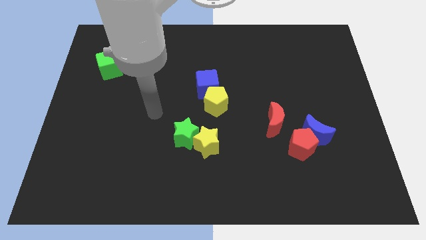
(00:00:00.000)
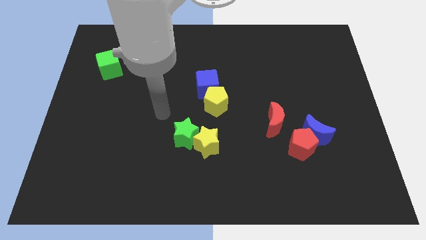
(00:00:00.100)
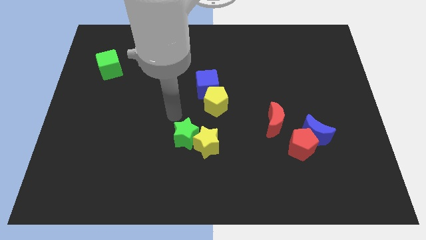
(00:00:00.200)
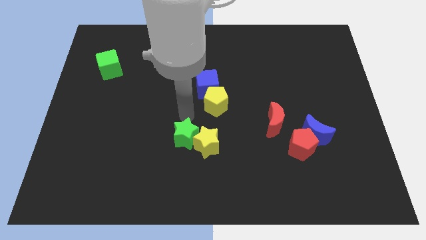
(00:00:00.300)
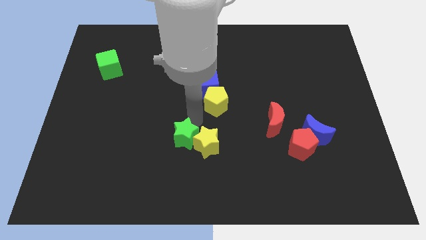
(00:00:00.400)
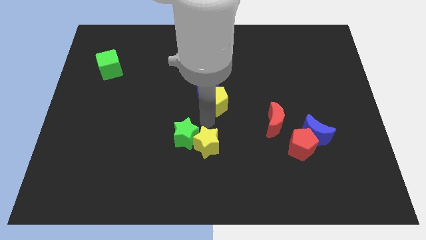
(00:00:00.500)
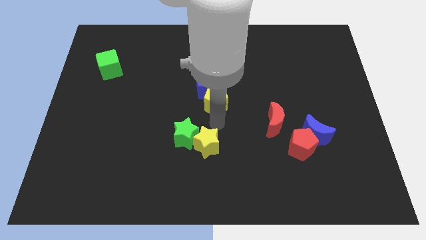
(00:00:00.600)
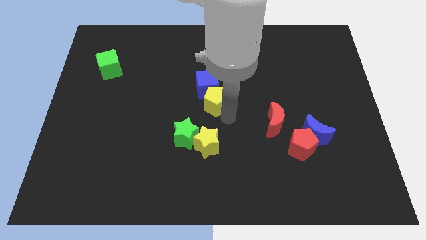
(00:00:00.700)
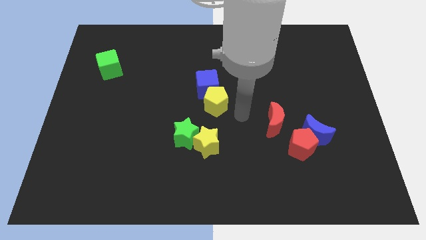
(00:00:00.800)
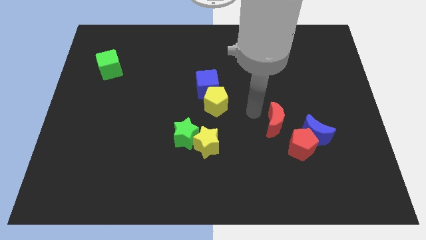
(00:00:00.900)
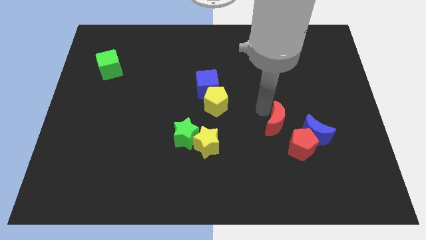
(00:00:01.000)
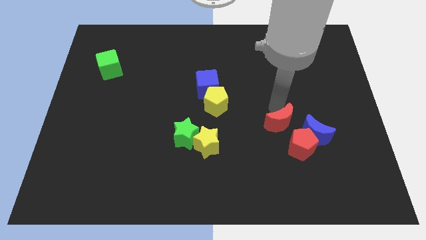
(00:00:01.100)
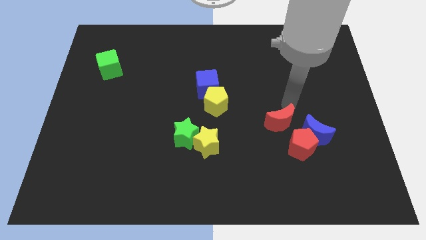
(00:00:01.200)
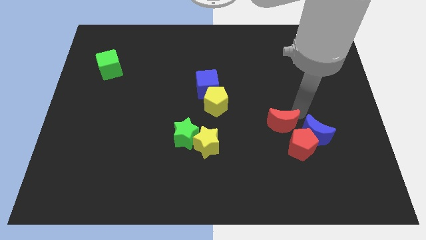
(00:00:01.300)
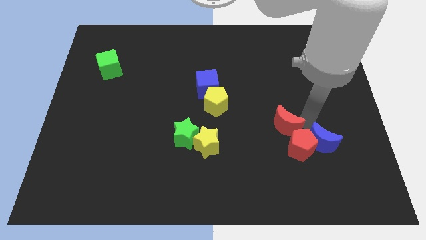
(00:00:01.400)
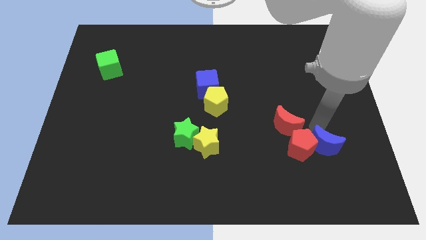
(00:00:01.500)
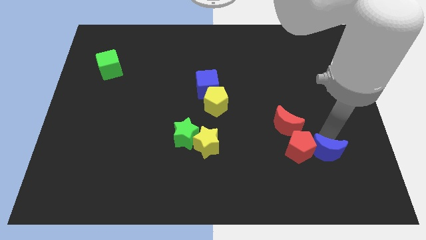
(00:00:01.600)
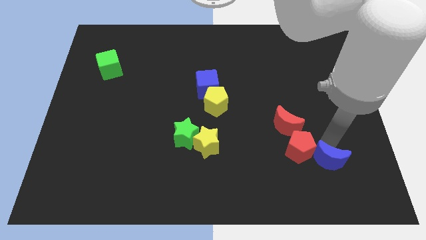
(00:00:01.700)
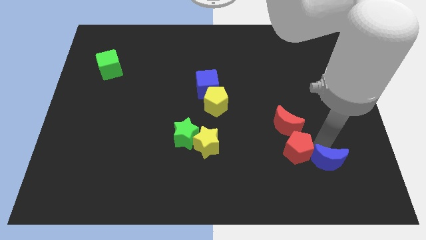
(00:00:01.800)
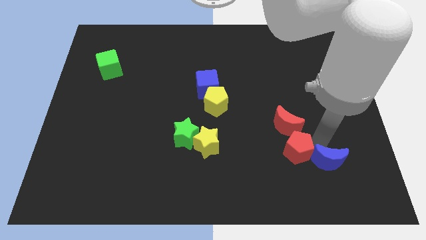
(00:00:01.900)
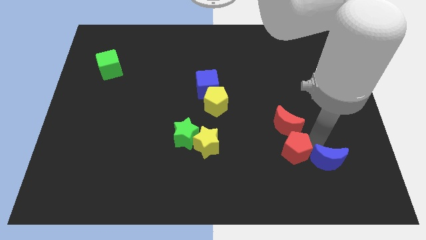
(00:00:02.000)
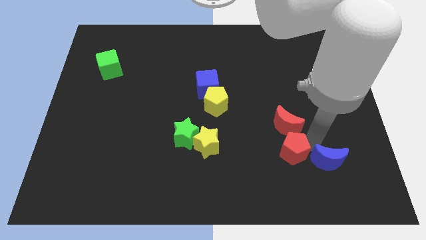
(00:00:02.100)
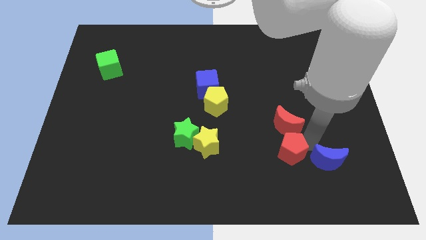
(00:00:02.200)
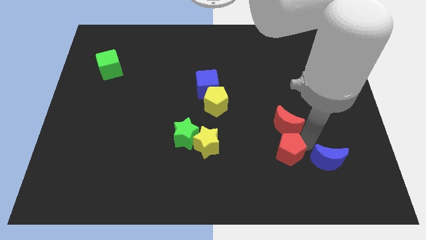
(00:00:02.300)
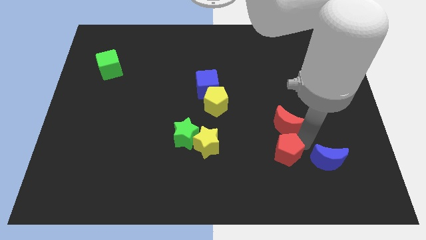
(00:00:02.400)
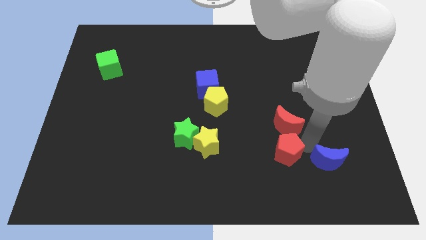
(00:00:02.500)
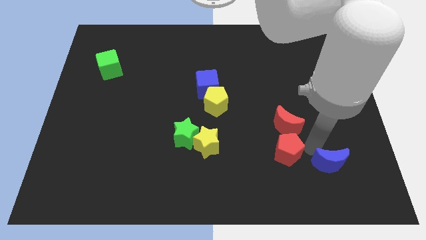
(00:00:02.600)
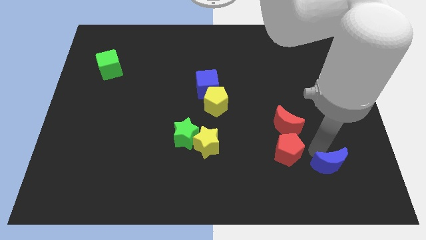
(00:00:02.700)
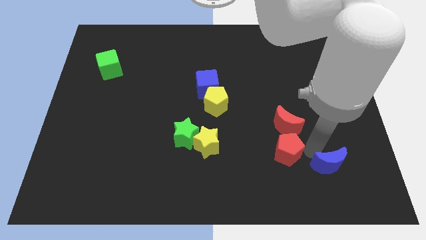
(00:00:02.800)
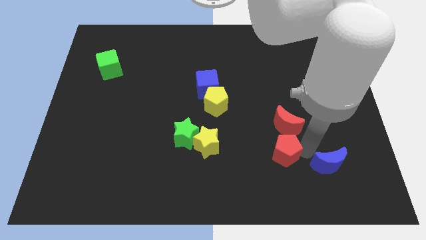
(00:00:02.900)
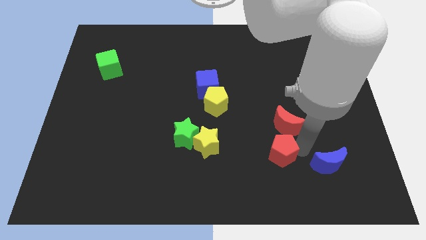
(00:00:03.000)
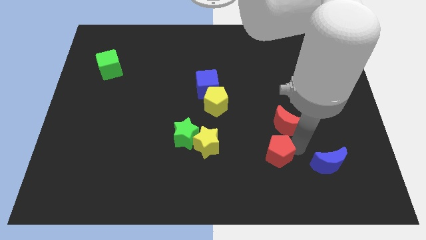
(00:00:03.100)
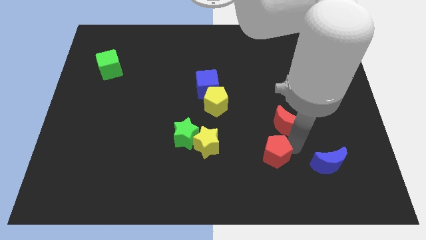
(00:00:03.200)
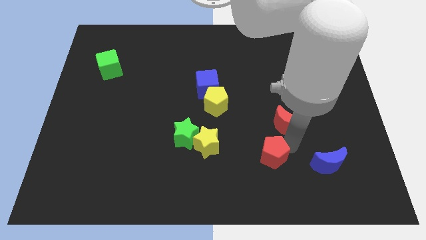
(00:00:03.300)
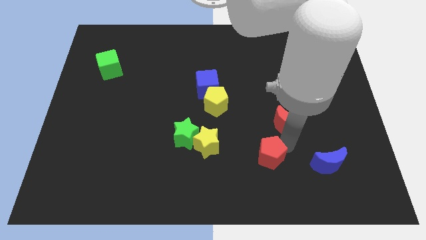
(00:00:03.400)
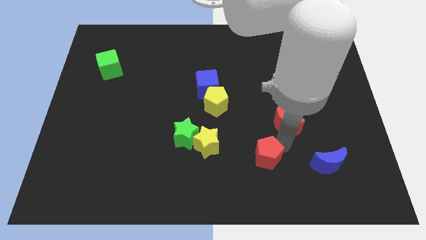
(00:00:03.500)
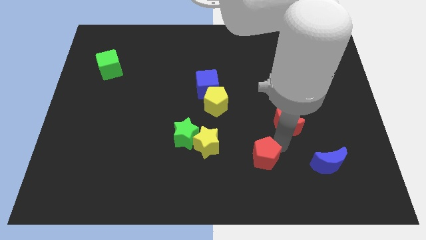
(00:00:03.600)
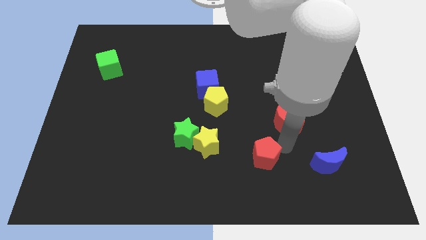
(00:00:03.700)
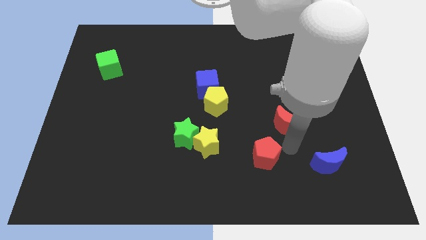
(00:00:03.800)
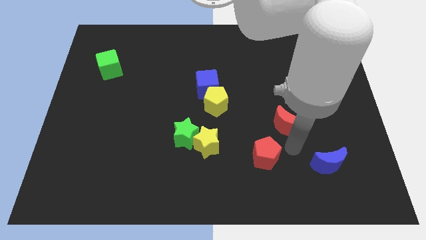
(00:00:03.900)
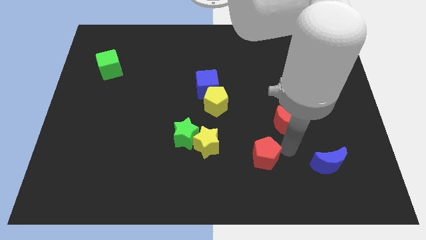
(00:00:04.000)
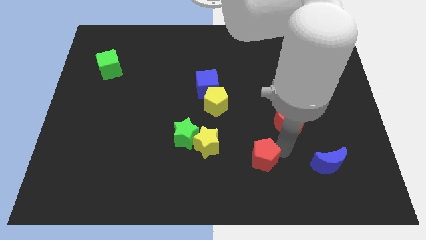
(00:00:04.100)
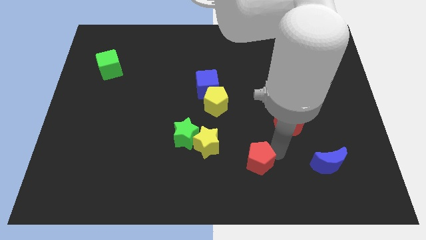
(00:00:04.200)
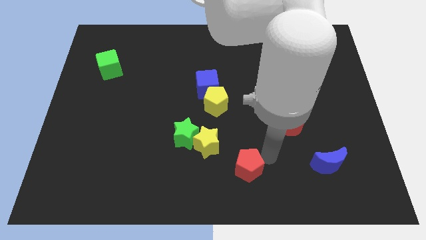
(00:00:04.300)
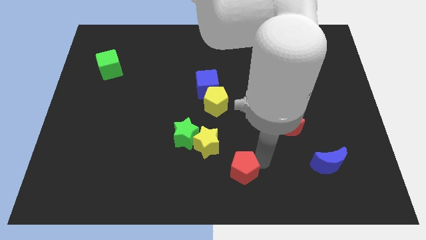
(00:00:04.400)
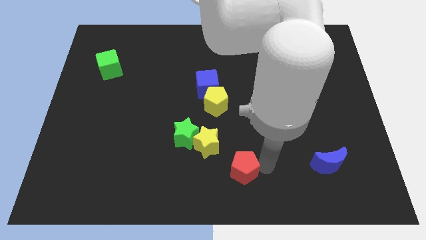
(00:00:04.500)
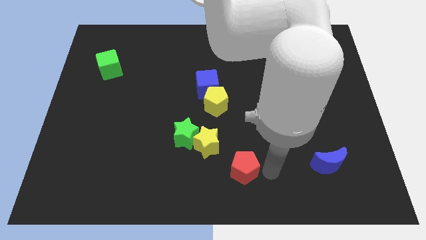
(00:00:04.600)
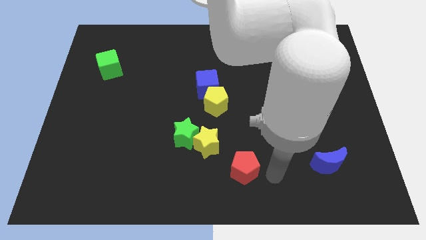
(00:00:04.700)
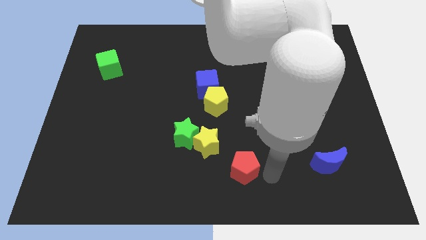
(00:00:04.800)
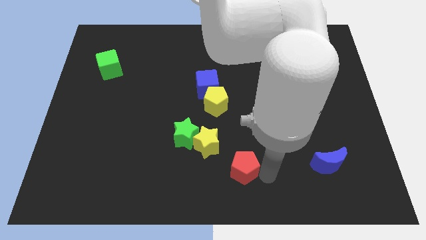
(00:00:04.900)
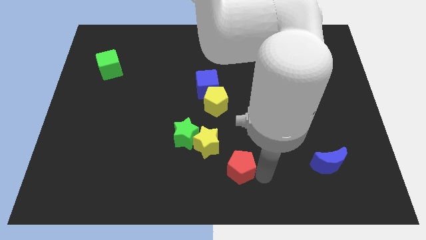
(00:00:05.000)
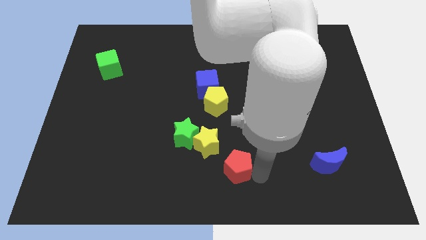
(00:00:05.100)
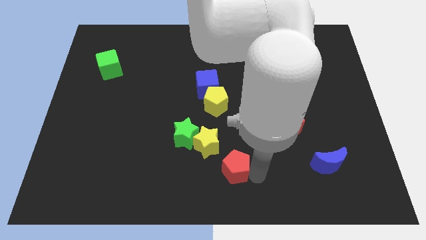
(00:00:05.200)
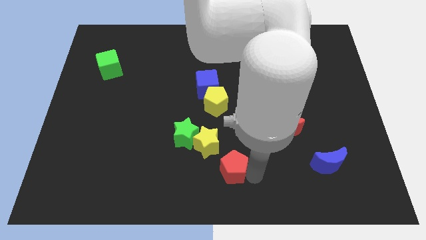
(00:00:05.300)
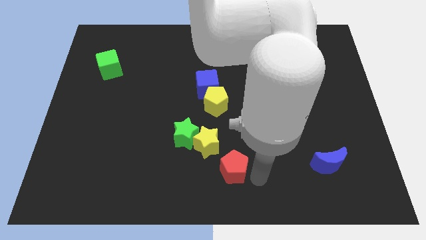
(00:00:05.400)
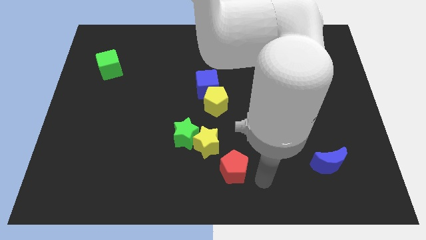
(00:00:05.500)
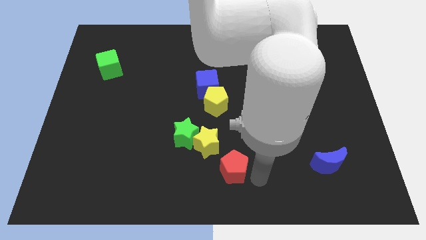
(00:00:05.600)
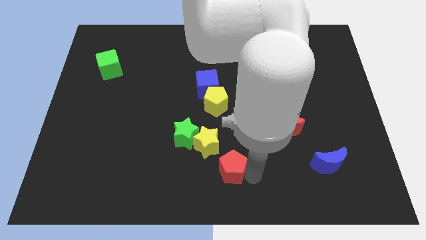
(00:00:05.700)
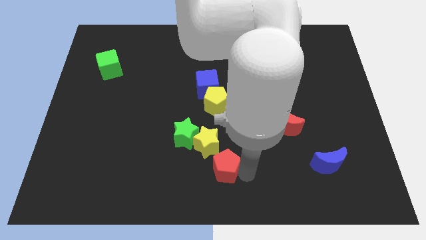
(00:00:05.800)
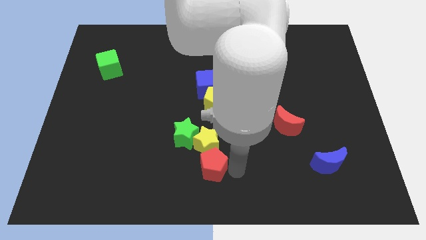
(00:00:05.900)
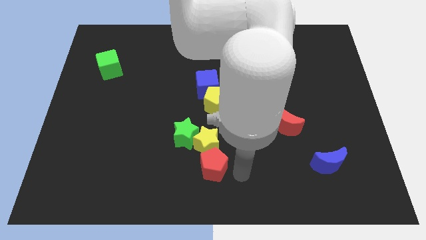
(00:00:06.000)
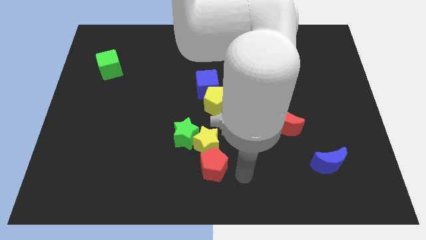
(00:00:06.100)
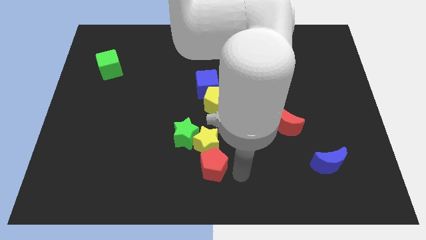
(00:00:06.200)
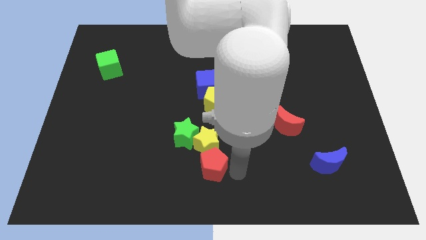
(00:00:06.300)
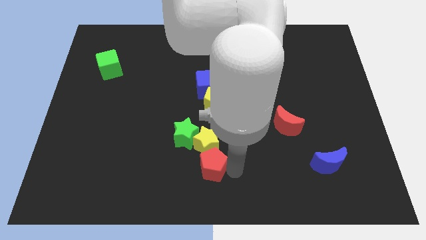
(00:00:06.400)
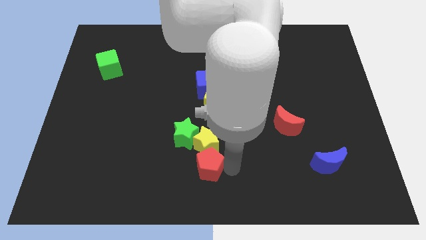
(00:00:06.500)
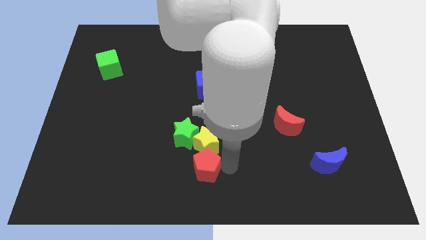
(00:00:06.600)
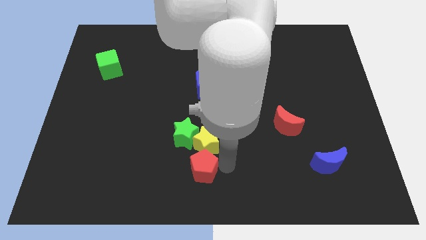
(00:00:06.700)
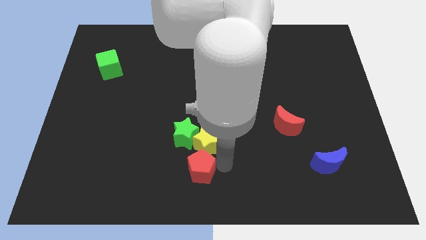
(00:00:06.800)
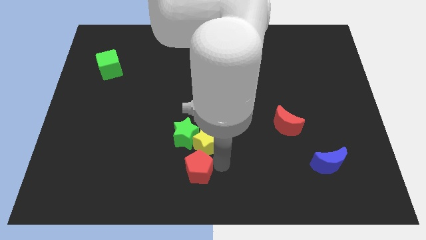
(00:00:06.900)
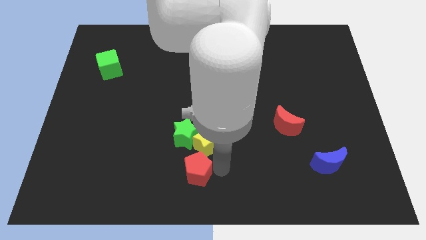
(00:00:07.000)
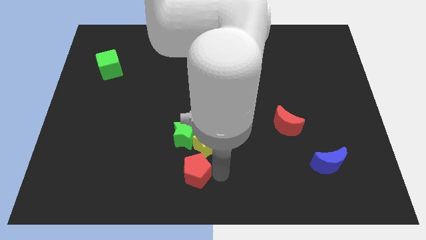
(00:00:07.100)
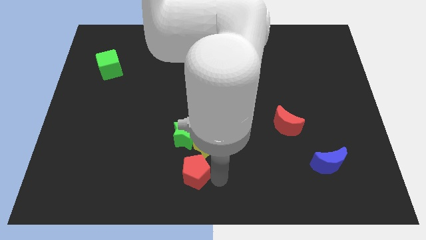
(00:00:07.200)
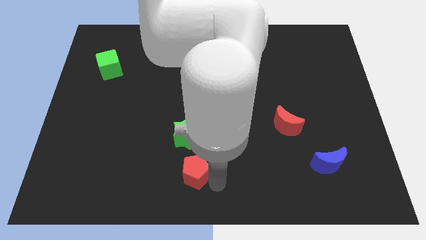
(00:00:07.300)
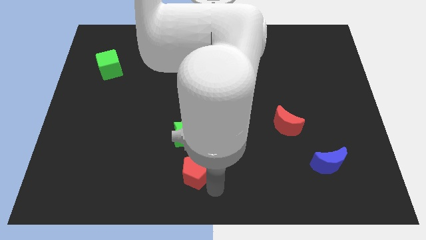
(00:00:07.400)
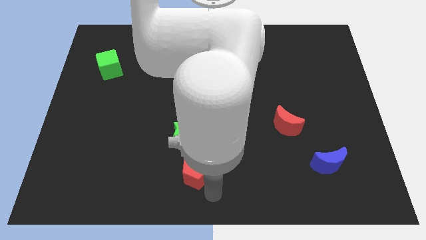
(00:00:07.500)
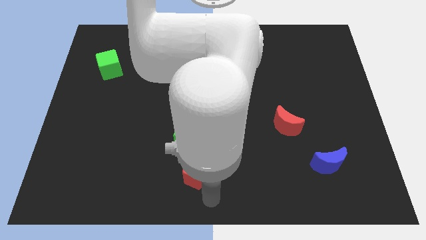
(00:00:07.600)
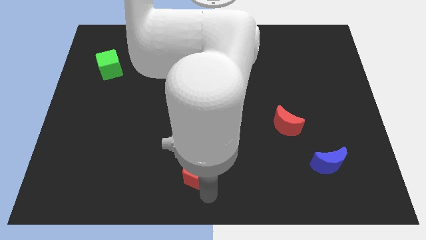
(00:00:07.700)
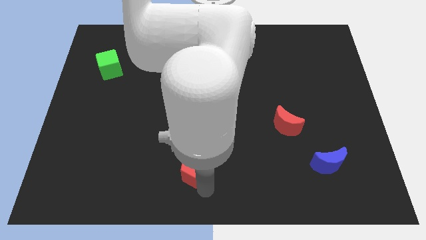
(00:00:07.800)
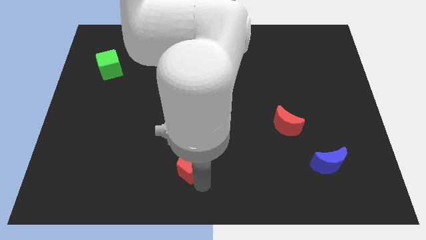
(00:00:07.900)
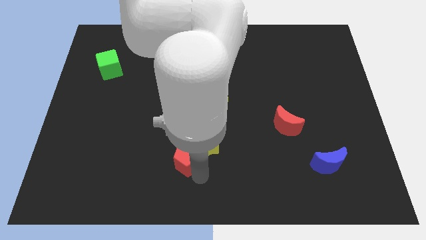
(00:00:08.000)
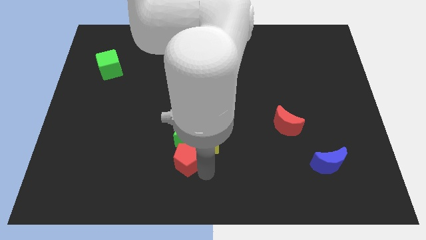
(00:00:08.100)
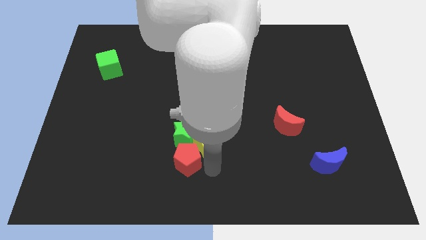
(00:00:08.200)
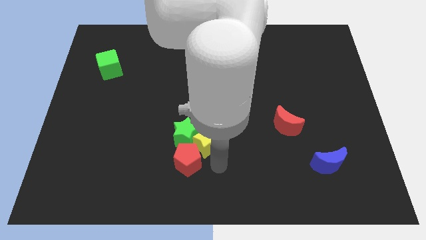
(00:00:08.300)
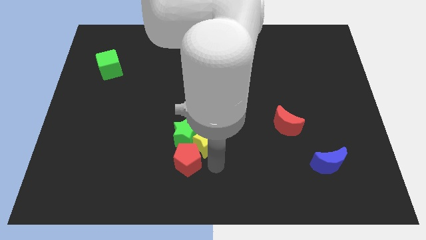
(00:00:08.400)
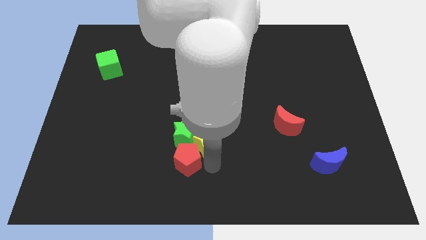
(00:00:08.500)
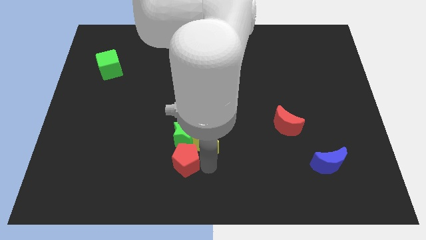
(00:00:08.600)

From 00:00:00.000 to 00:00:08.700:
put the red pentagon to the bottom left of the green star
